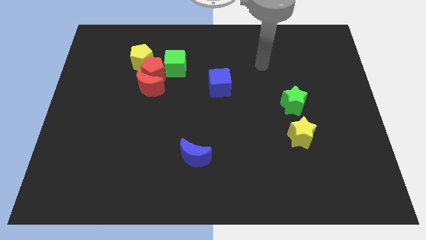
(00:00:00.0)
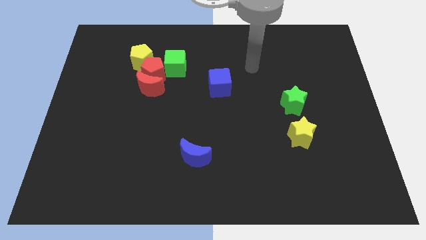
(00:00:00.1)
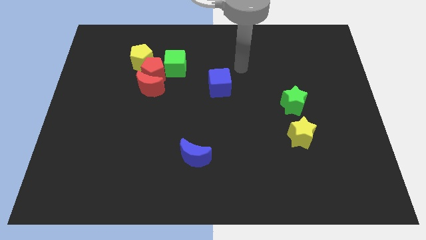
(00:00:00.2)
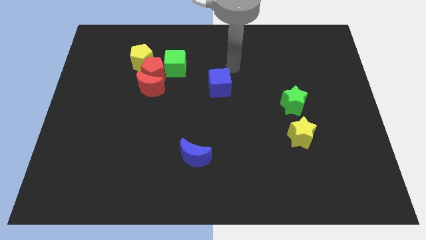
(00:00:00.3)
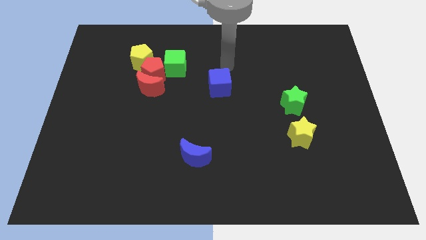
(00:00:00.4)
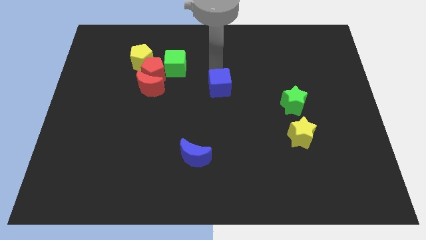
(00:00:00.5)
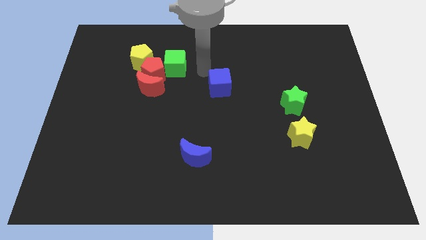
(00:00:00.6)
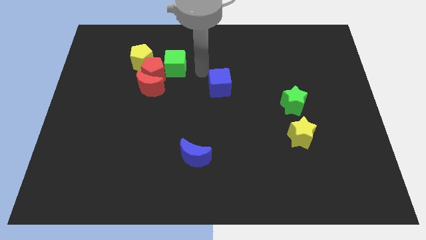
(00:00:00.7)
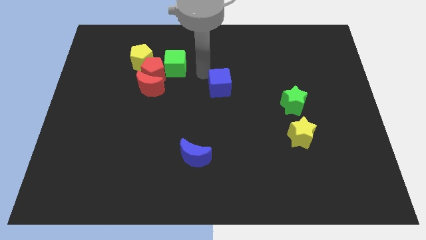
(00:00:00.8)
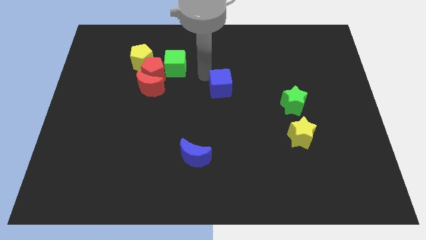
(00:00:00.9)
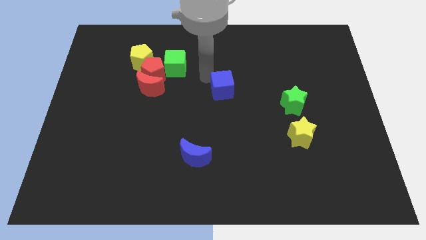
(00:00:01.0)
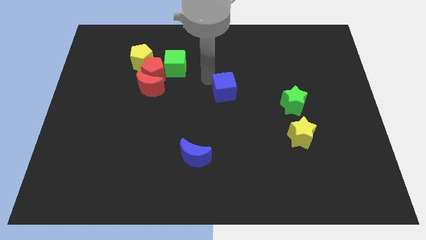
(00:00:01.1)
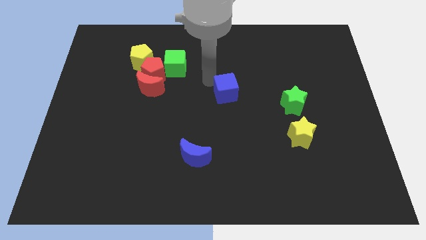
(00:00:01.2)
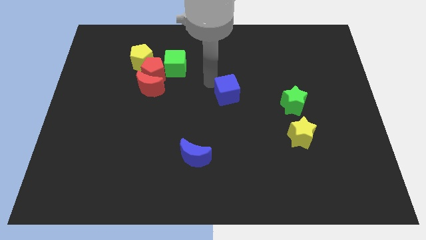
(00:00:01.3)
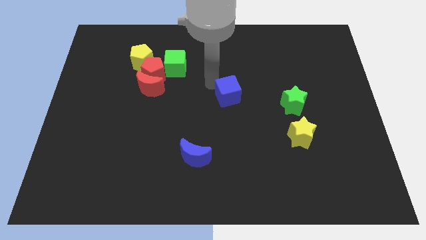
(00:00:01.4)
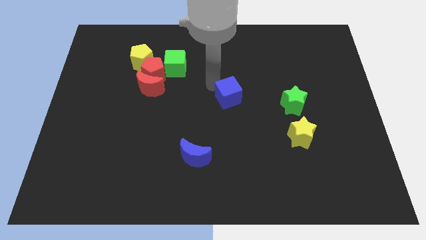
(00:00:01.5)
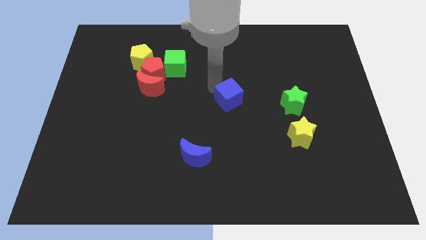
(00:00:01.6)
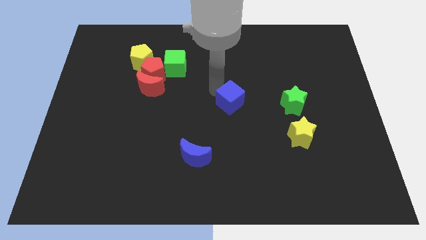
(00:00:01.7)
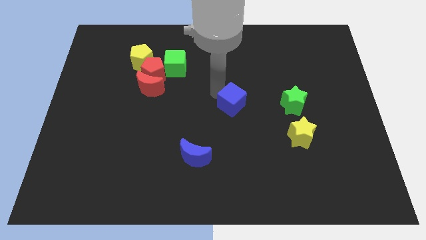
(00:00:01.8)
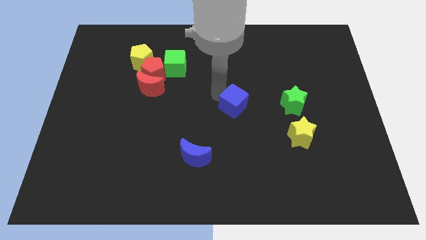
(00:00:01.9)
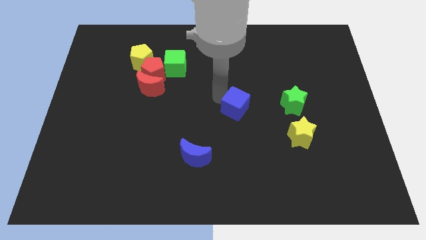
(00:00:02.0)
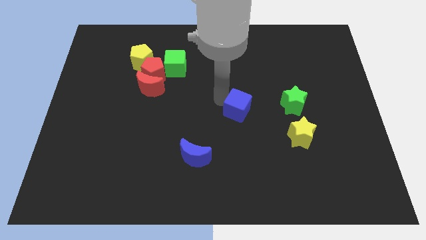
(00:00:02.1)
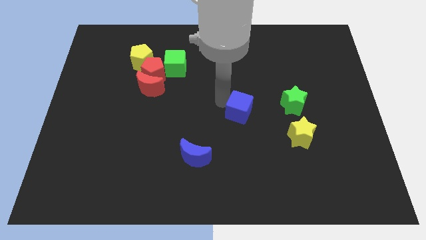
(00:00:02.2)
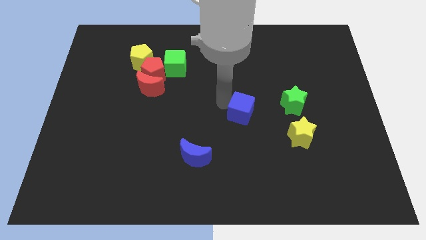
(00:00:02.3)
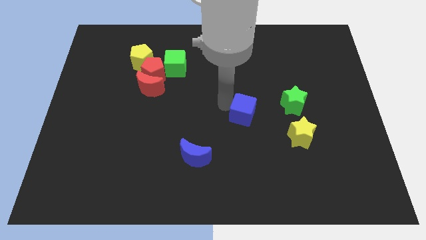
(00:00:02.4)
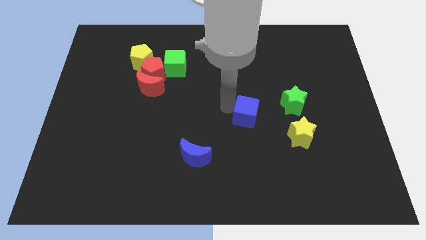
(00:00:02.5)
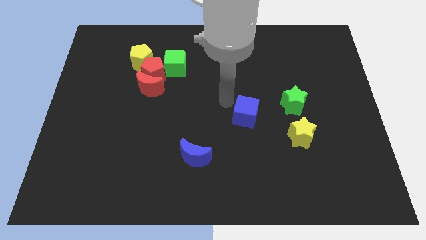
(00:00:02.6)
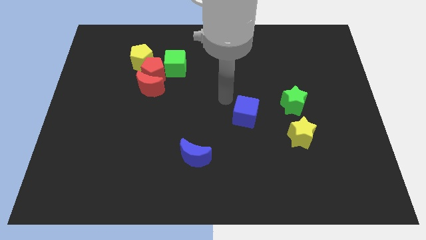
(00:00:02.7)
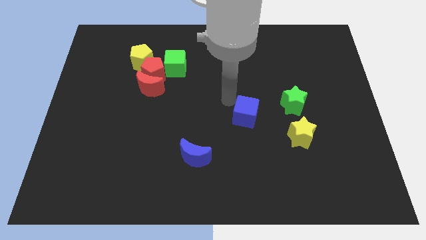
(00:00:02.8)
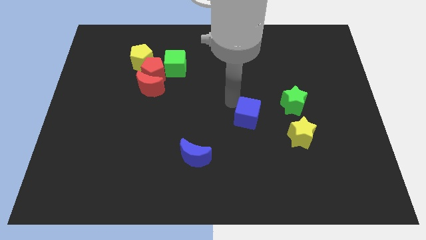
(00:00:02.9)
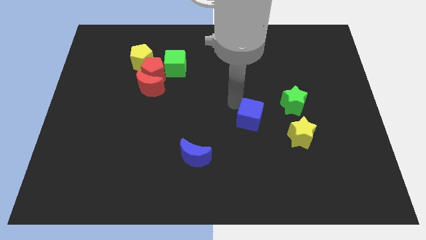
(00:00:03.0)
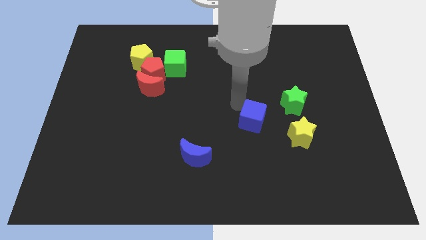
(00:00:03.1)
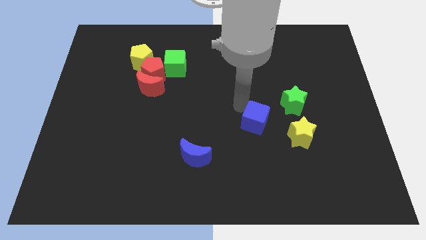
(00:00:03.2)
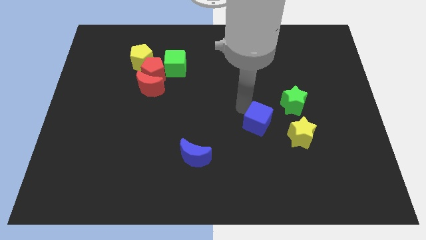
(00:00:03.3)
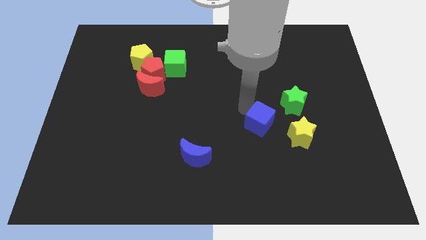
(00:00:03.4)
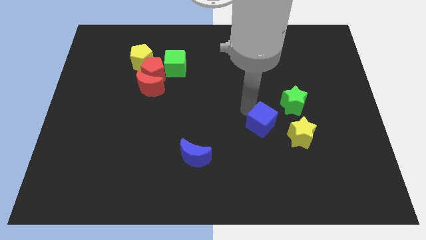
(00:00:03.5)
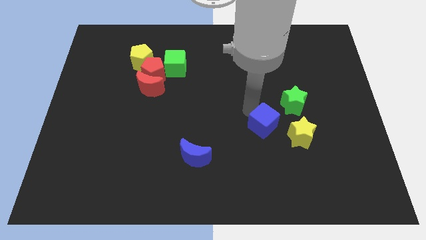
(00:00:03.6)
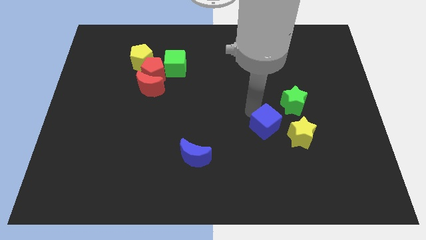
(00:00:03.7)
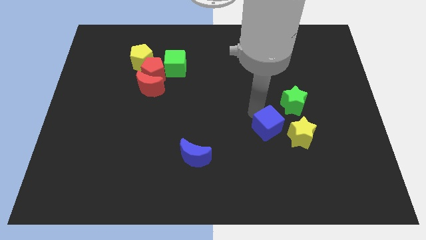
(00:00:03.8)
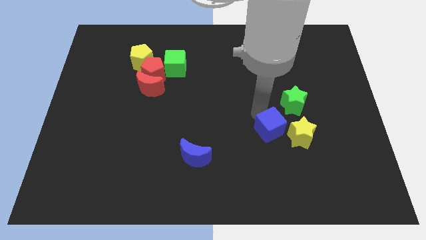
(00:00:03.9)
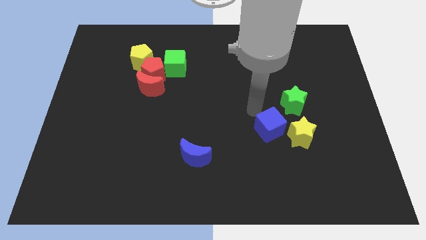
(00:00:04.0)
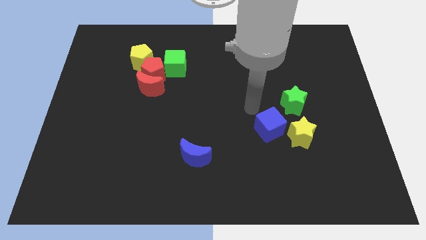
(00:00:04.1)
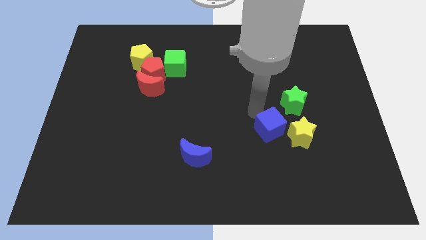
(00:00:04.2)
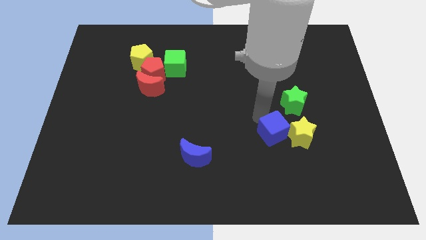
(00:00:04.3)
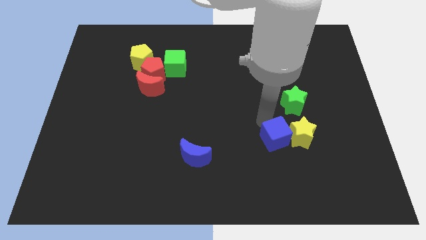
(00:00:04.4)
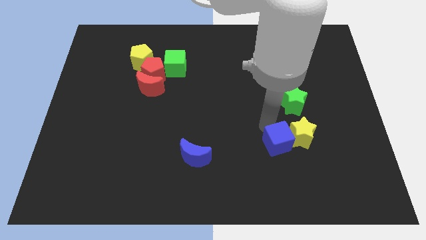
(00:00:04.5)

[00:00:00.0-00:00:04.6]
push the blue cube down and to the right

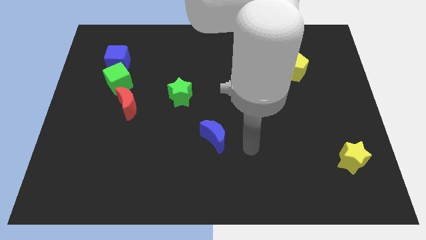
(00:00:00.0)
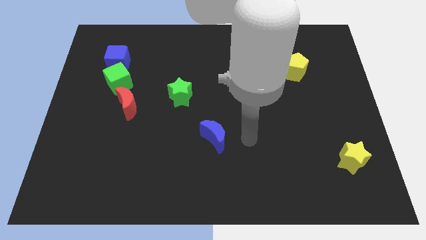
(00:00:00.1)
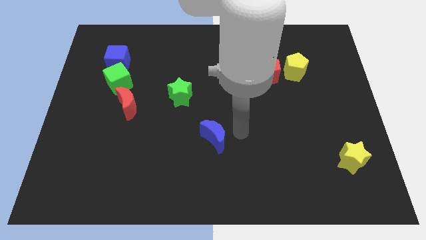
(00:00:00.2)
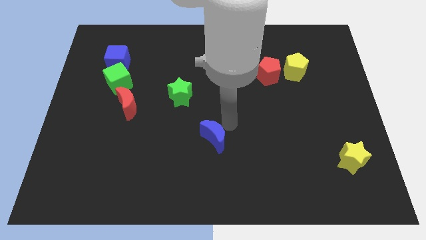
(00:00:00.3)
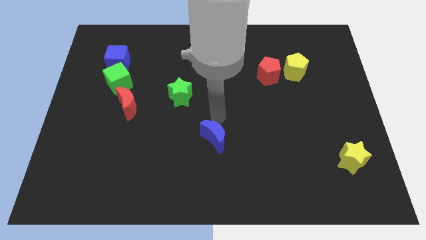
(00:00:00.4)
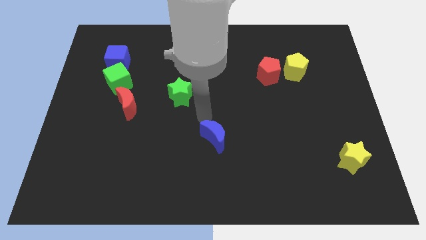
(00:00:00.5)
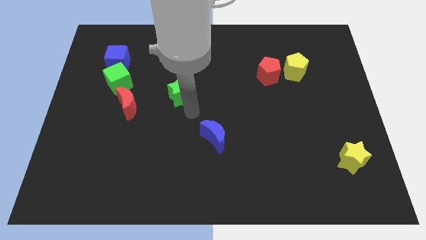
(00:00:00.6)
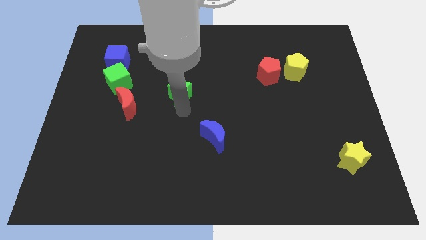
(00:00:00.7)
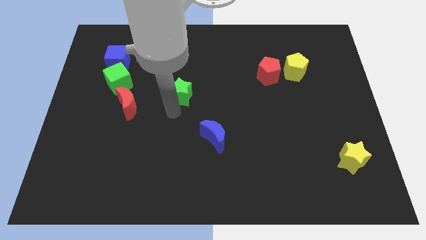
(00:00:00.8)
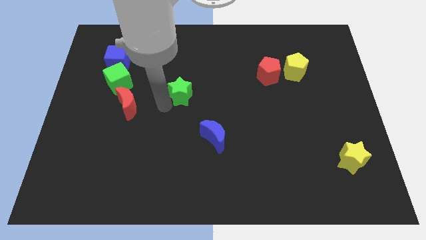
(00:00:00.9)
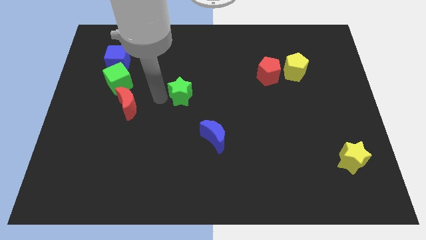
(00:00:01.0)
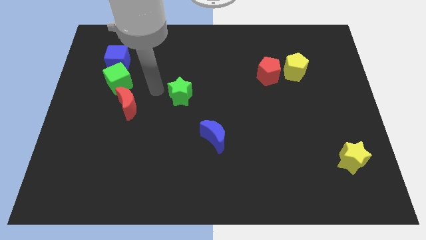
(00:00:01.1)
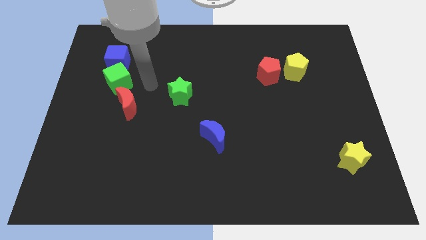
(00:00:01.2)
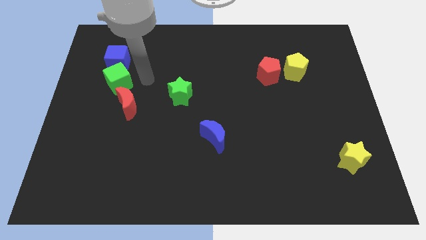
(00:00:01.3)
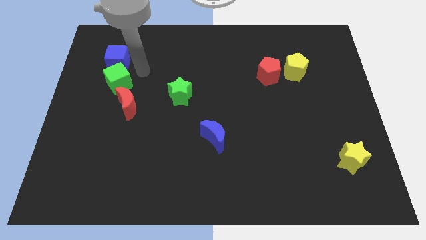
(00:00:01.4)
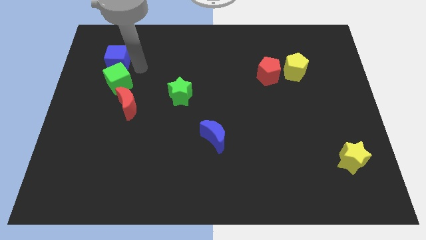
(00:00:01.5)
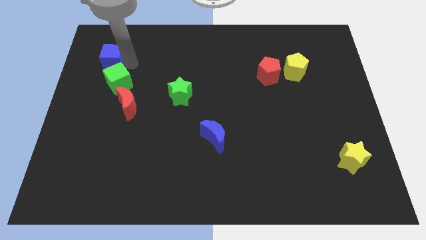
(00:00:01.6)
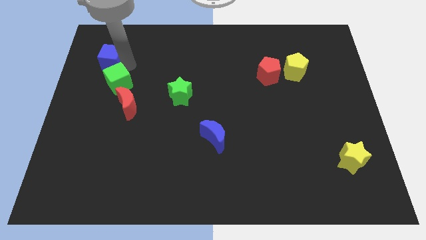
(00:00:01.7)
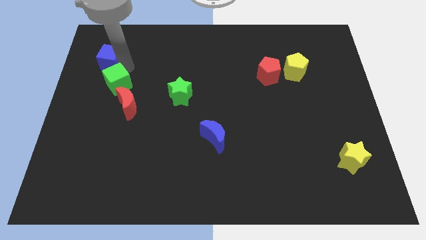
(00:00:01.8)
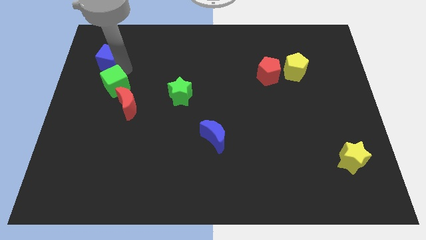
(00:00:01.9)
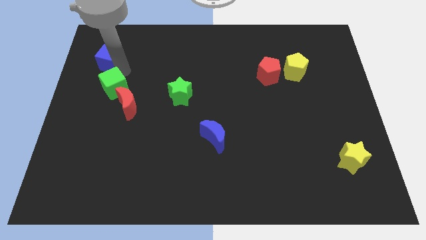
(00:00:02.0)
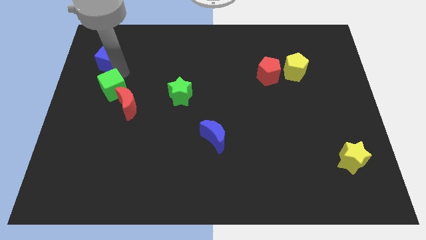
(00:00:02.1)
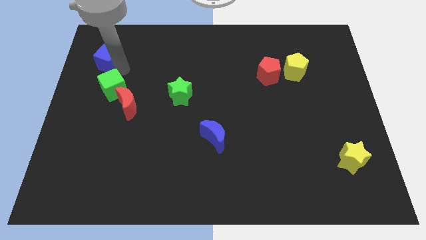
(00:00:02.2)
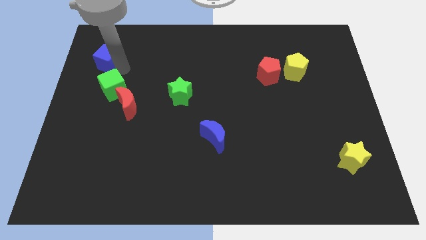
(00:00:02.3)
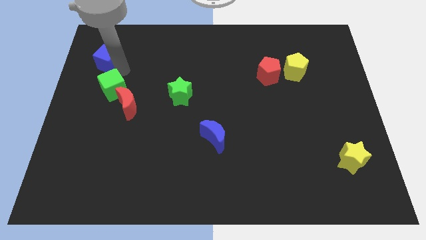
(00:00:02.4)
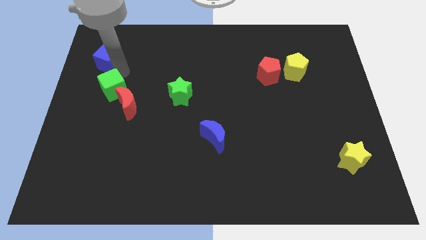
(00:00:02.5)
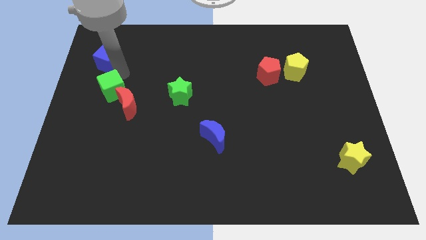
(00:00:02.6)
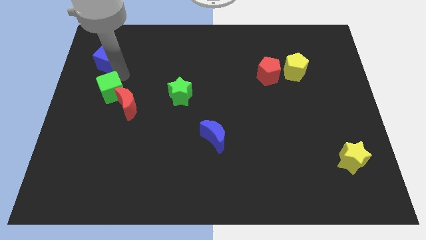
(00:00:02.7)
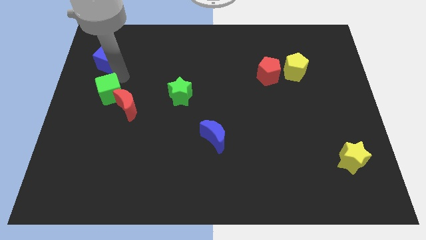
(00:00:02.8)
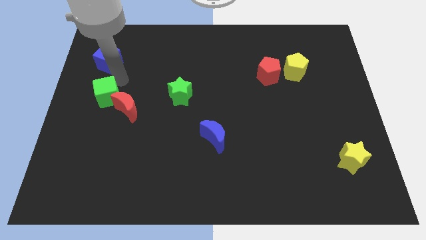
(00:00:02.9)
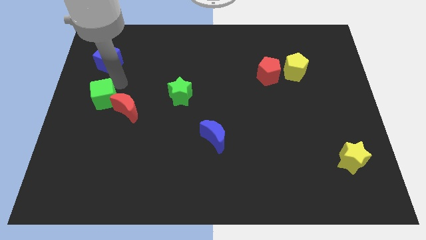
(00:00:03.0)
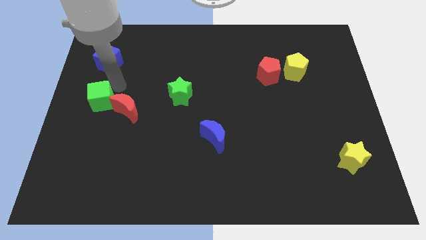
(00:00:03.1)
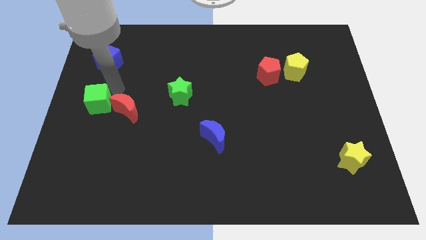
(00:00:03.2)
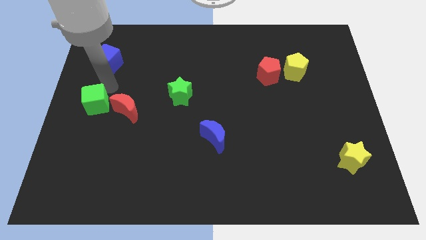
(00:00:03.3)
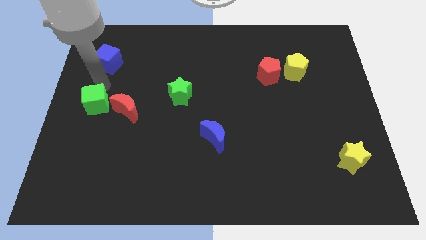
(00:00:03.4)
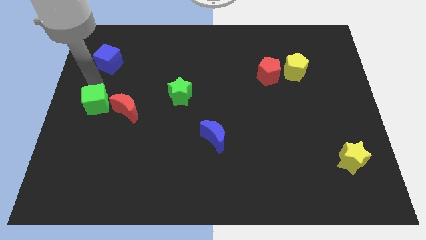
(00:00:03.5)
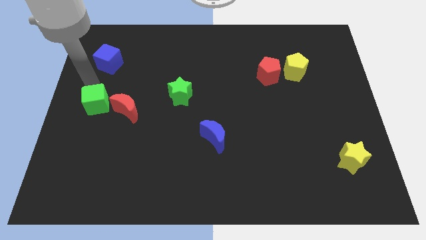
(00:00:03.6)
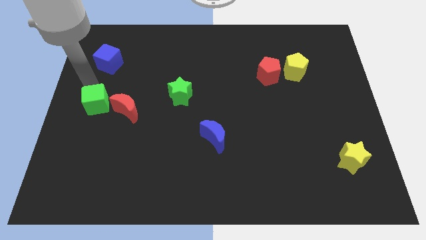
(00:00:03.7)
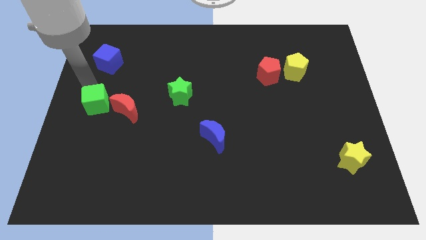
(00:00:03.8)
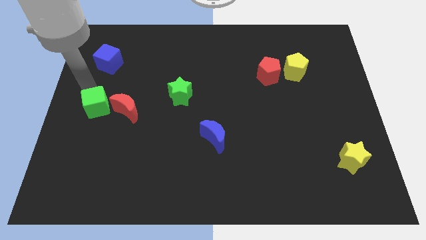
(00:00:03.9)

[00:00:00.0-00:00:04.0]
move the green cube slightly downwards
